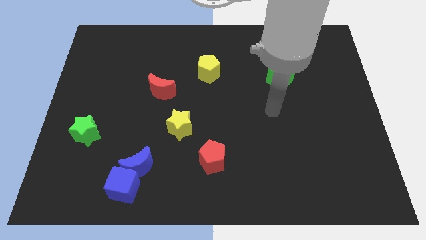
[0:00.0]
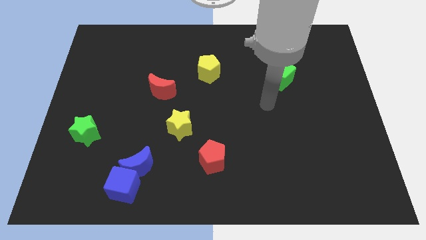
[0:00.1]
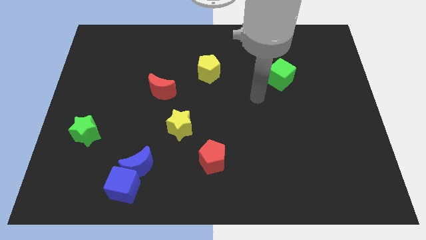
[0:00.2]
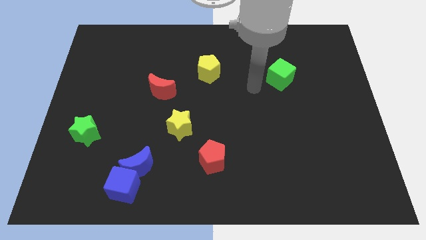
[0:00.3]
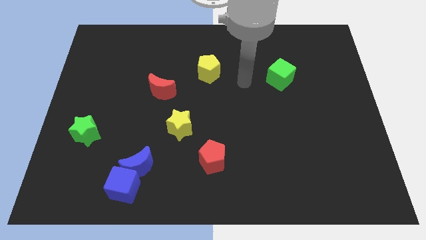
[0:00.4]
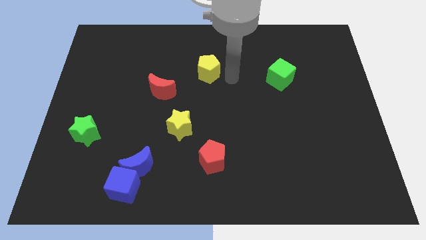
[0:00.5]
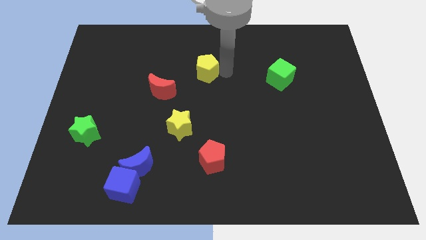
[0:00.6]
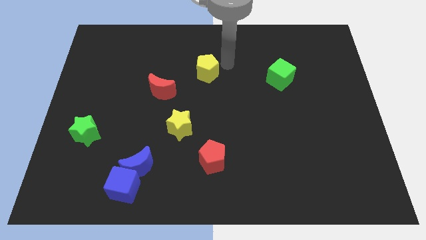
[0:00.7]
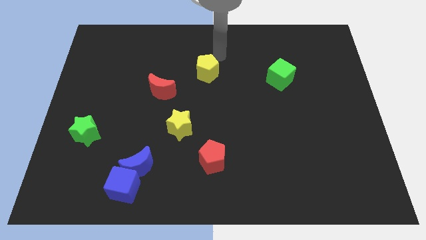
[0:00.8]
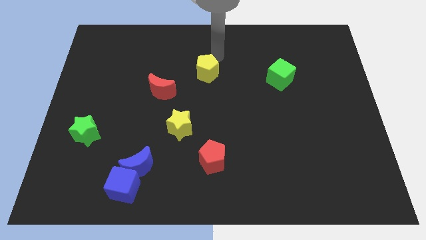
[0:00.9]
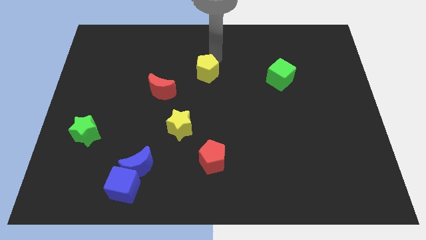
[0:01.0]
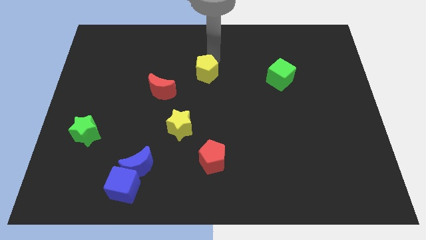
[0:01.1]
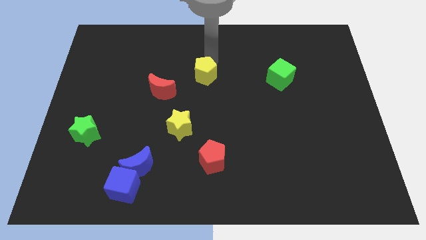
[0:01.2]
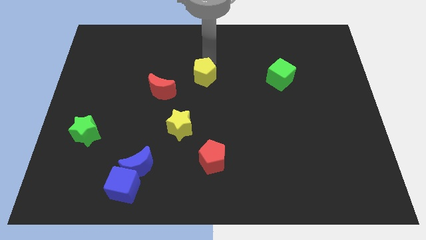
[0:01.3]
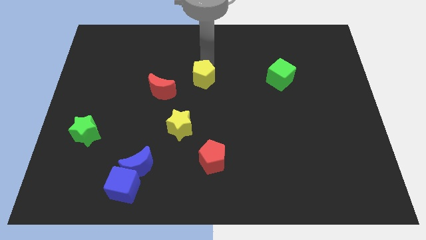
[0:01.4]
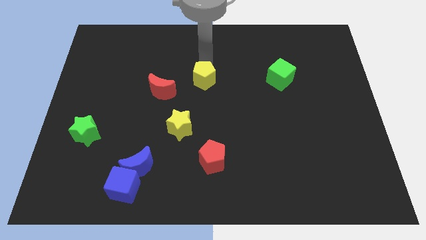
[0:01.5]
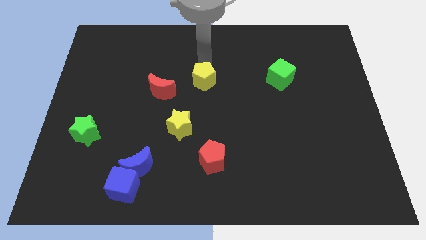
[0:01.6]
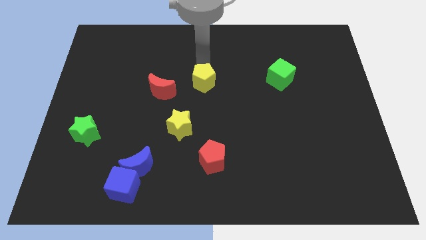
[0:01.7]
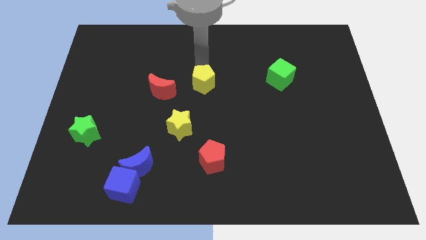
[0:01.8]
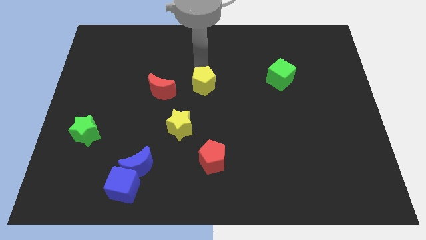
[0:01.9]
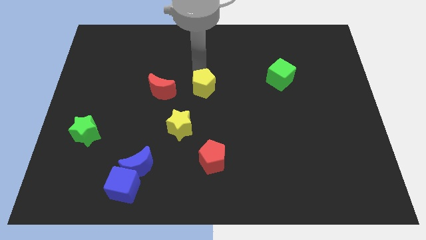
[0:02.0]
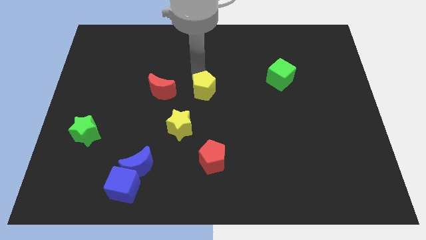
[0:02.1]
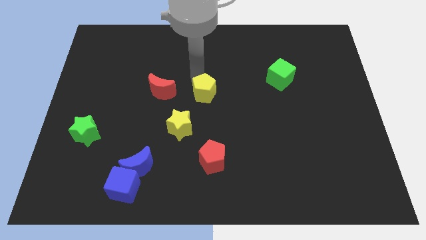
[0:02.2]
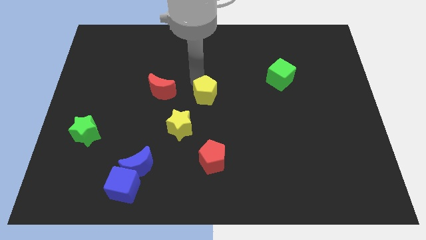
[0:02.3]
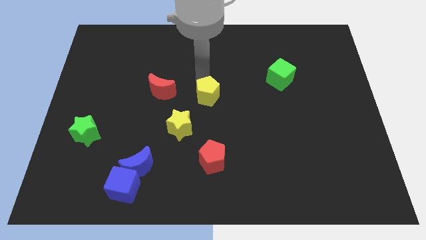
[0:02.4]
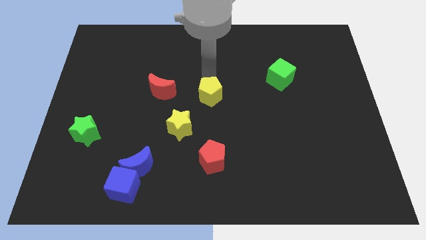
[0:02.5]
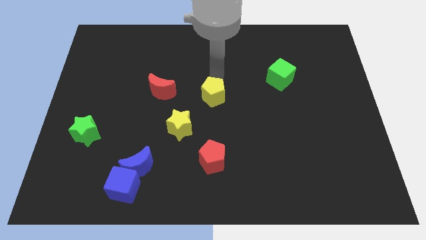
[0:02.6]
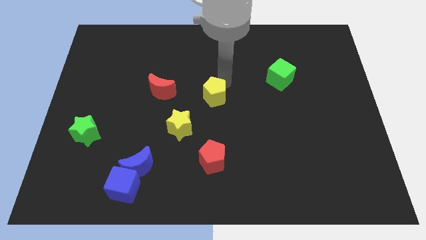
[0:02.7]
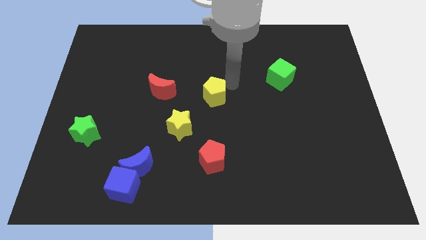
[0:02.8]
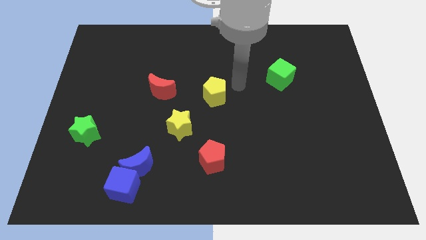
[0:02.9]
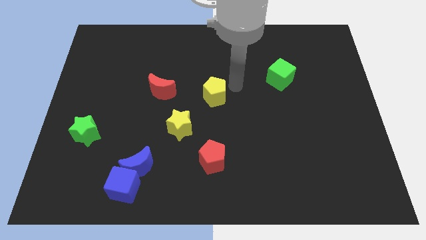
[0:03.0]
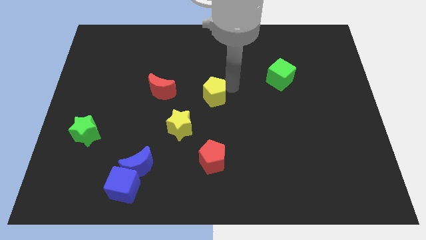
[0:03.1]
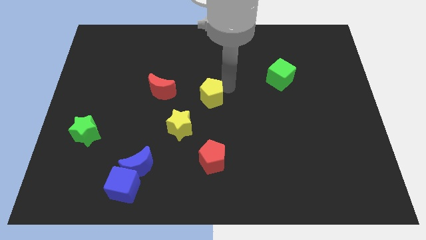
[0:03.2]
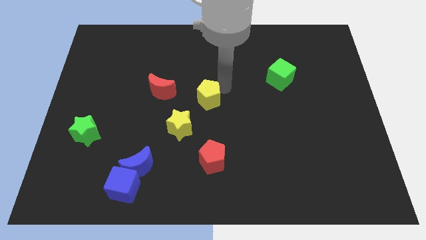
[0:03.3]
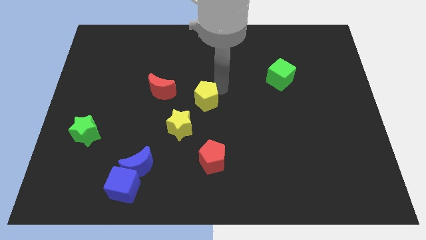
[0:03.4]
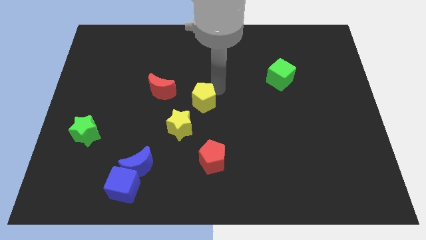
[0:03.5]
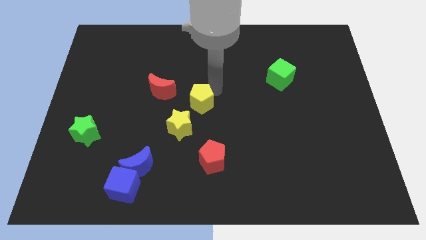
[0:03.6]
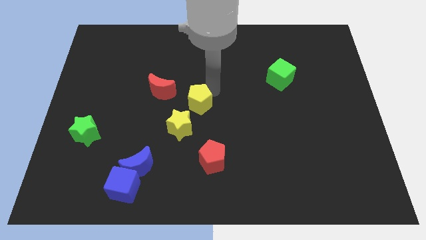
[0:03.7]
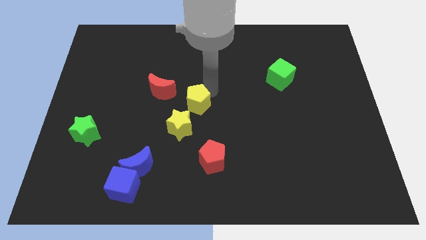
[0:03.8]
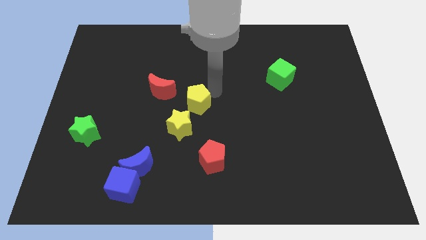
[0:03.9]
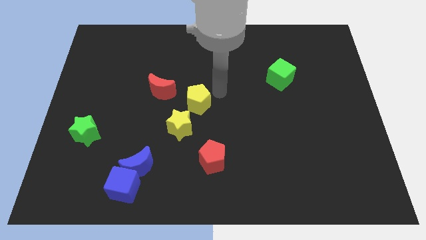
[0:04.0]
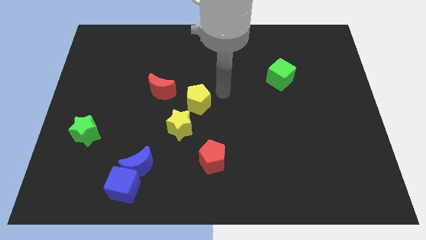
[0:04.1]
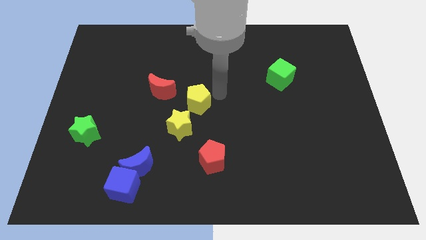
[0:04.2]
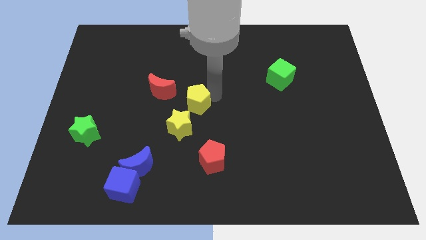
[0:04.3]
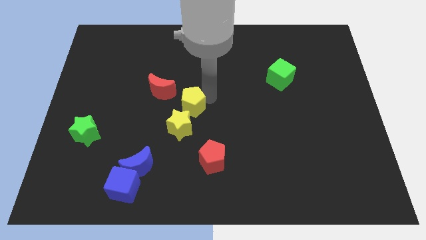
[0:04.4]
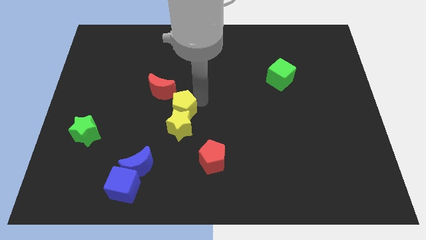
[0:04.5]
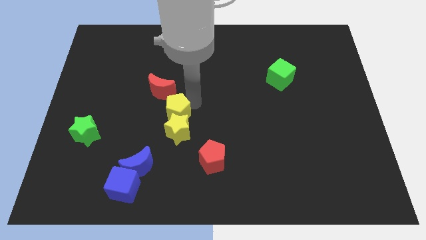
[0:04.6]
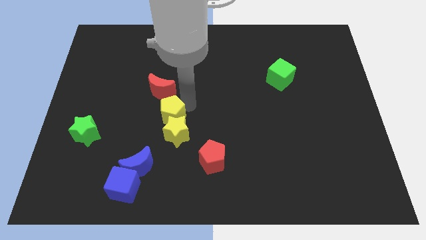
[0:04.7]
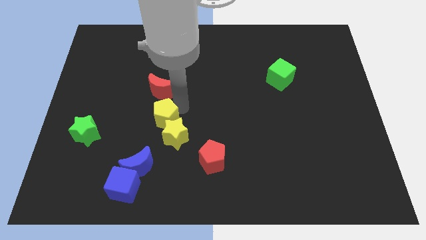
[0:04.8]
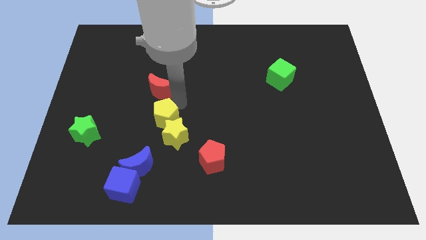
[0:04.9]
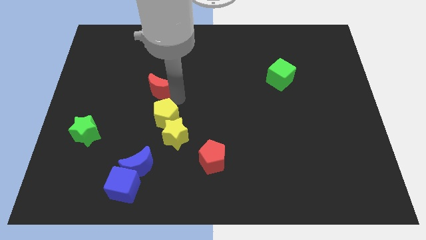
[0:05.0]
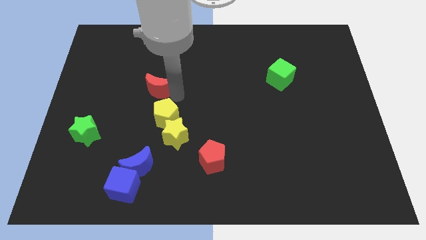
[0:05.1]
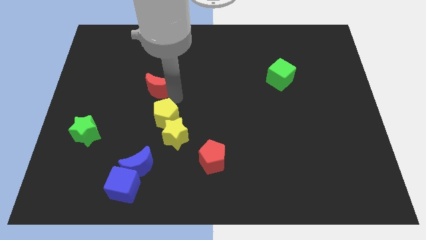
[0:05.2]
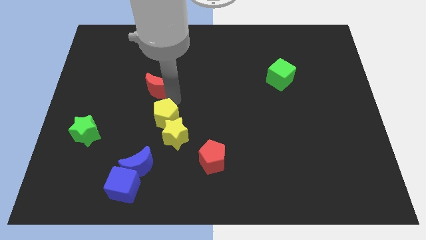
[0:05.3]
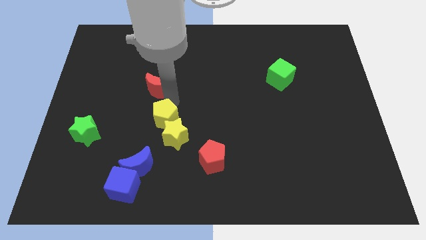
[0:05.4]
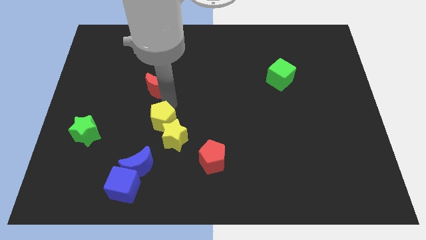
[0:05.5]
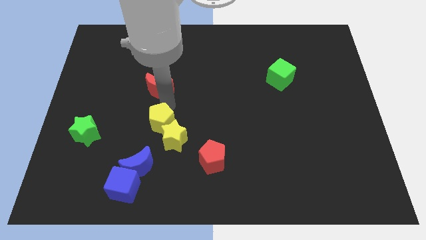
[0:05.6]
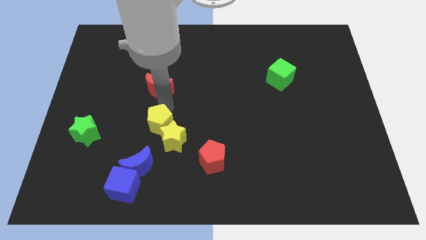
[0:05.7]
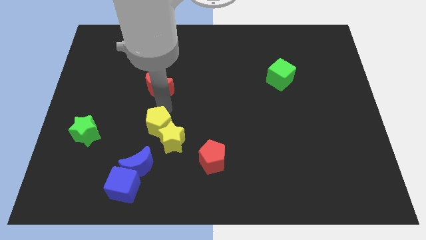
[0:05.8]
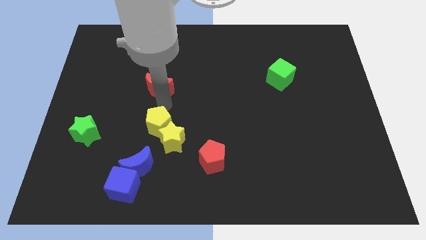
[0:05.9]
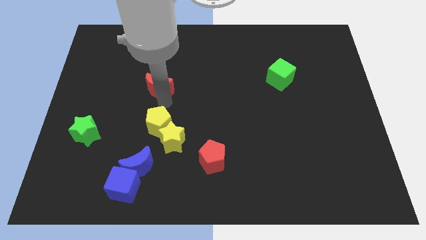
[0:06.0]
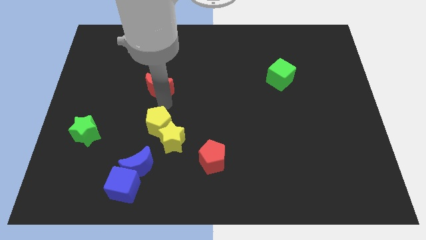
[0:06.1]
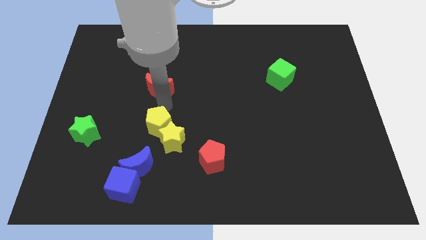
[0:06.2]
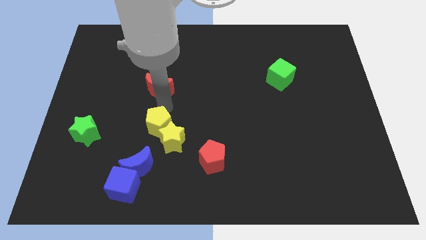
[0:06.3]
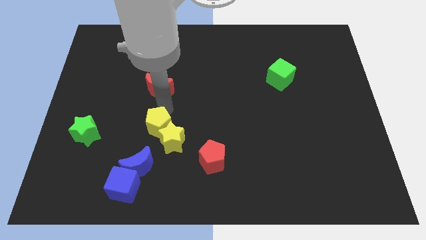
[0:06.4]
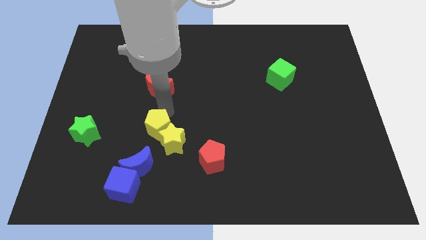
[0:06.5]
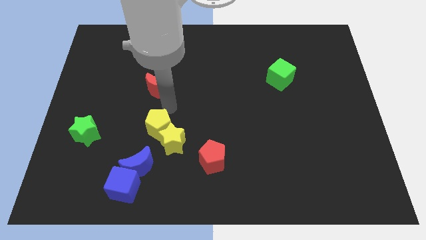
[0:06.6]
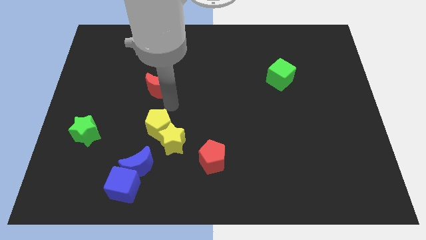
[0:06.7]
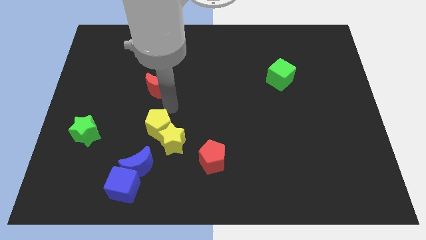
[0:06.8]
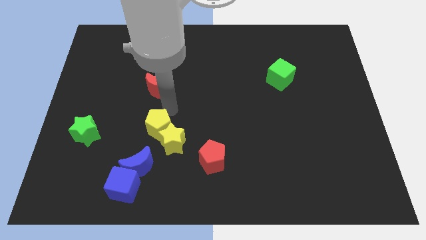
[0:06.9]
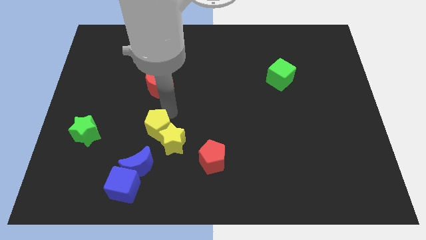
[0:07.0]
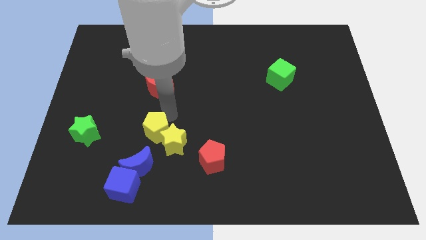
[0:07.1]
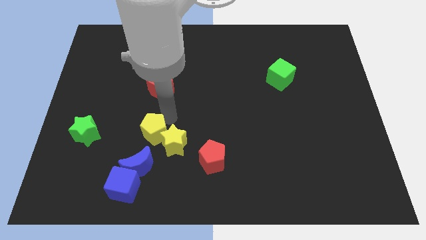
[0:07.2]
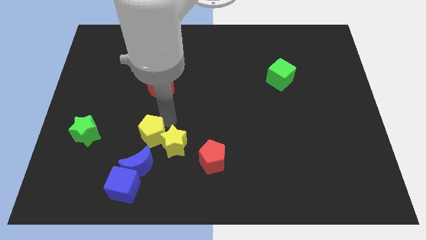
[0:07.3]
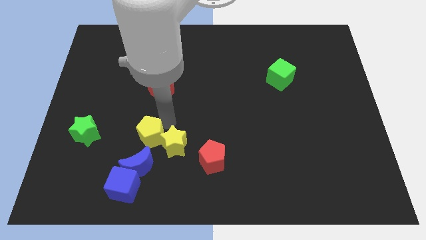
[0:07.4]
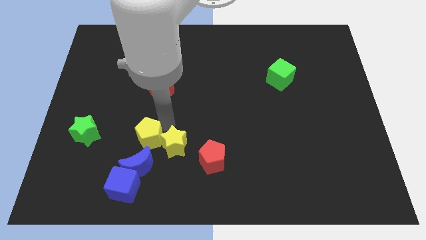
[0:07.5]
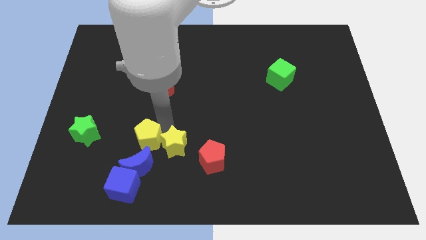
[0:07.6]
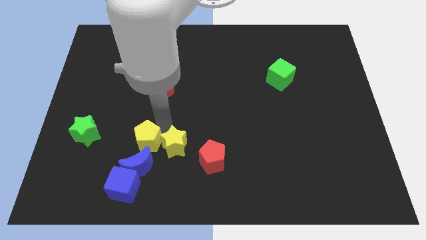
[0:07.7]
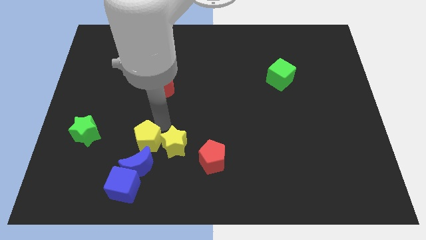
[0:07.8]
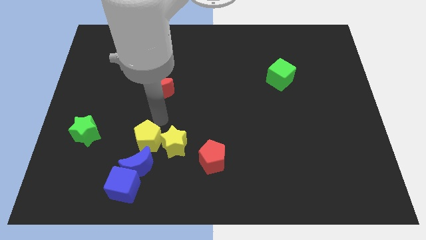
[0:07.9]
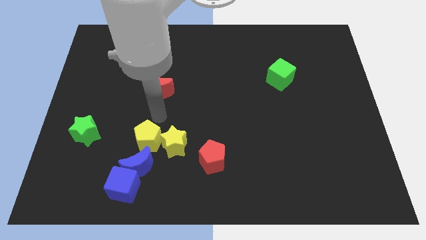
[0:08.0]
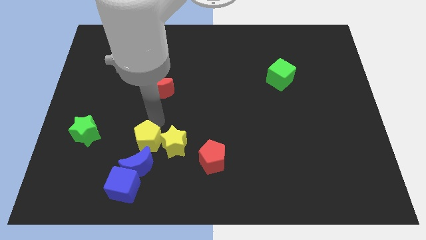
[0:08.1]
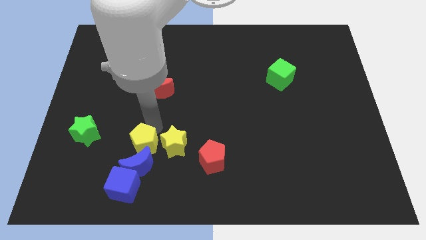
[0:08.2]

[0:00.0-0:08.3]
push the yellow pentagon towards the blue moon
